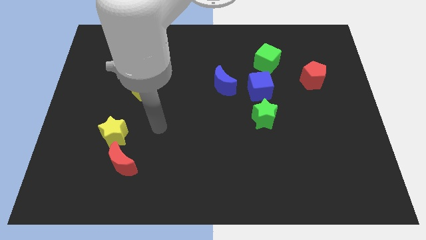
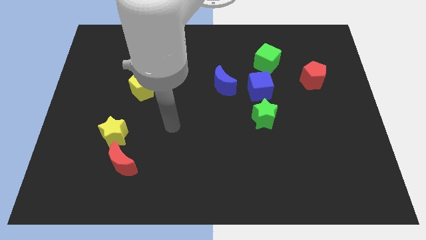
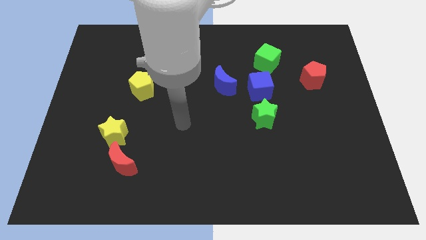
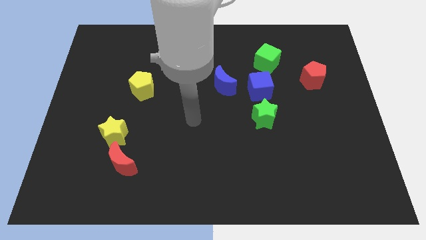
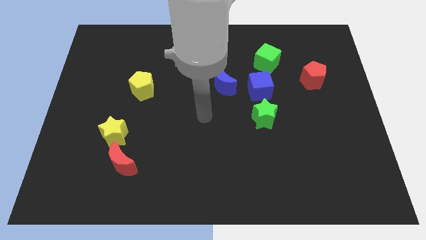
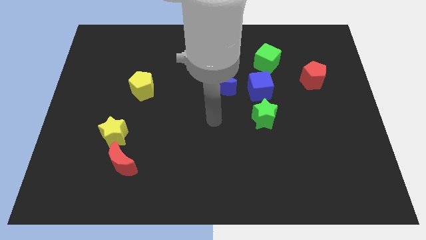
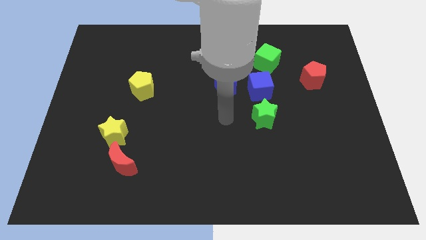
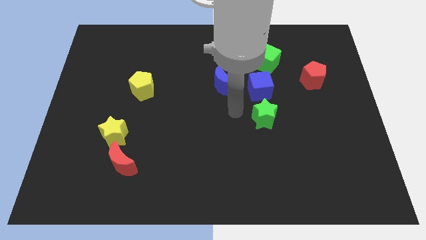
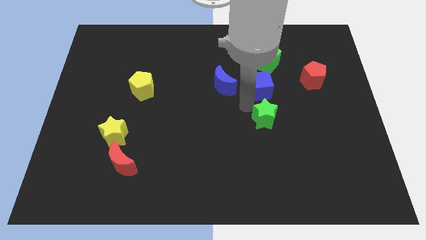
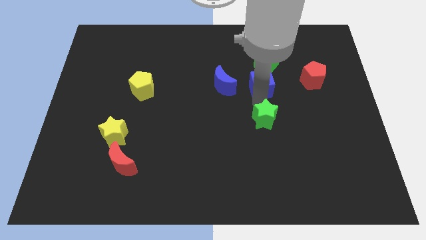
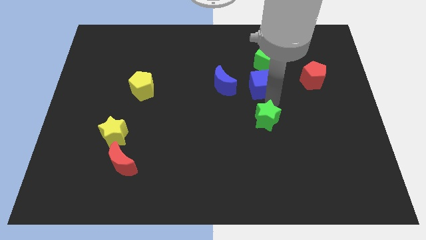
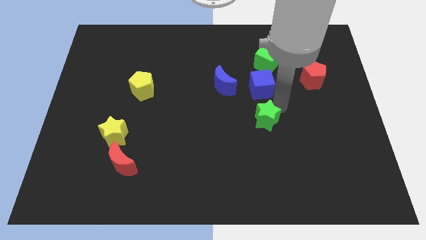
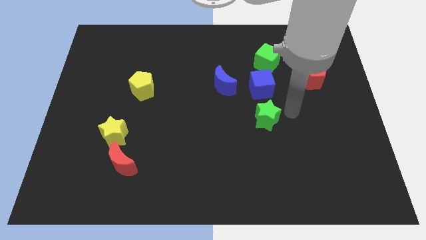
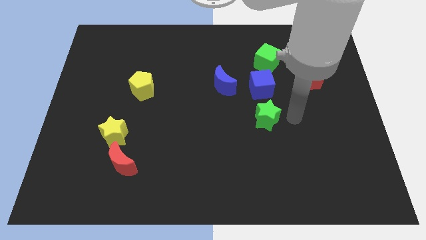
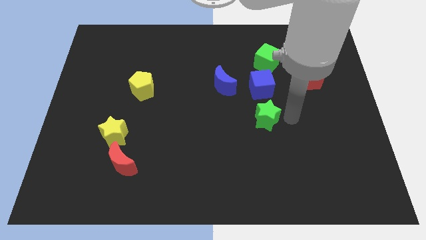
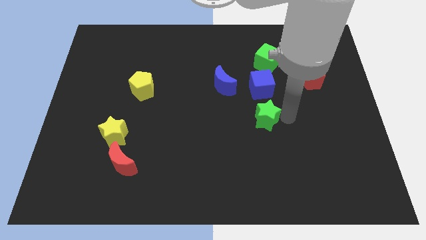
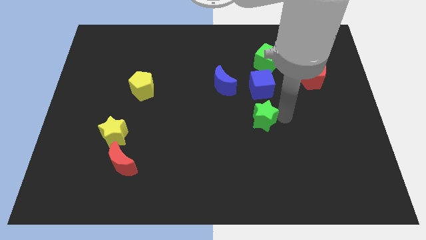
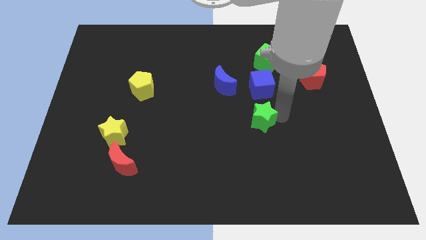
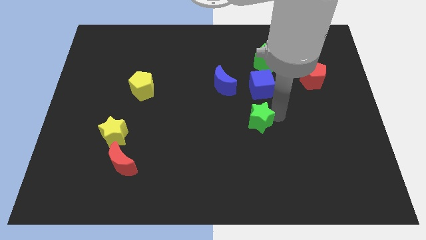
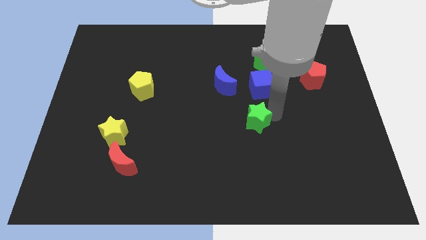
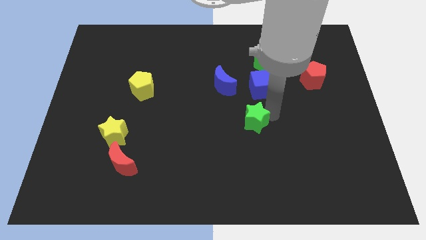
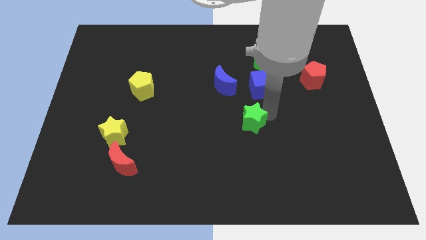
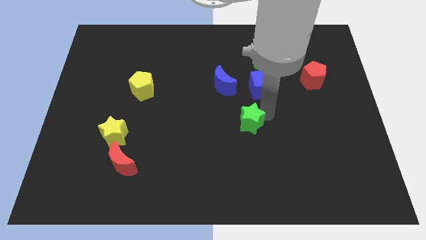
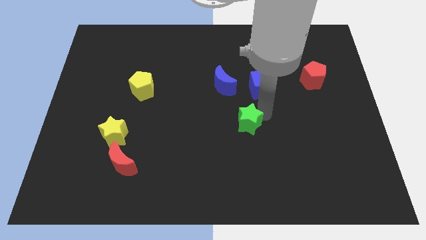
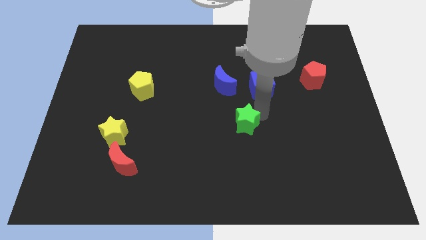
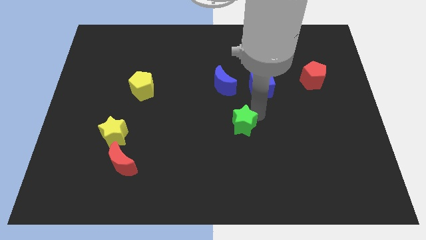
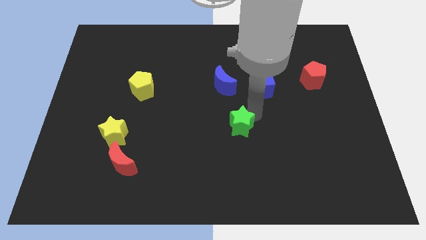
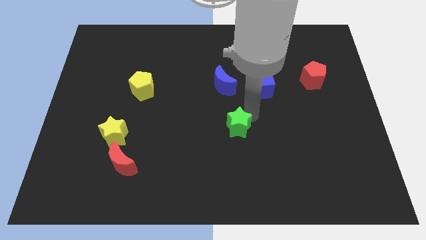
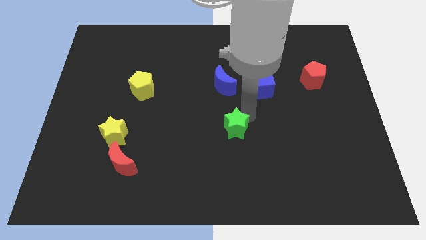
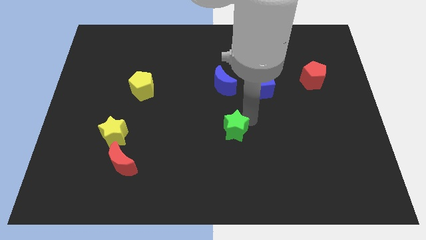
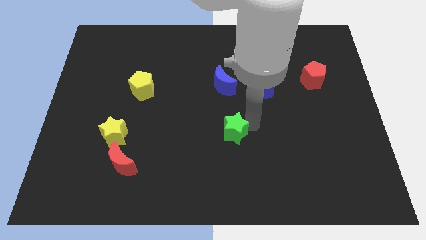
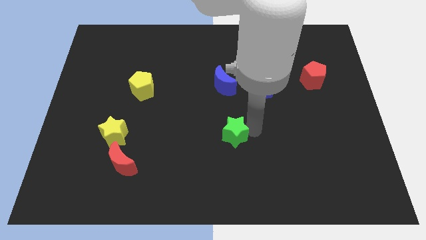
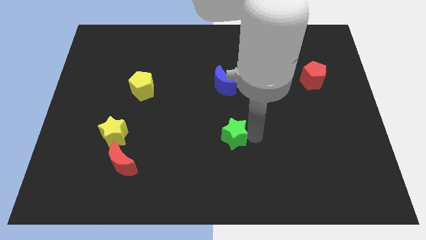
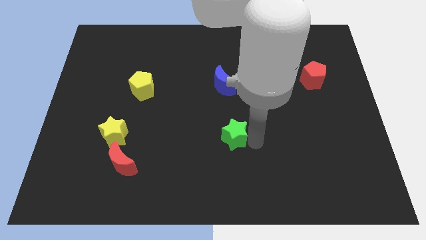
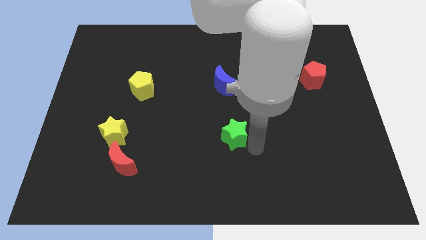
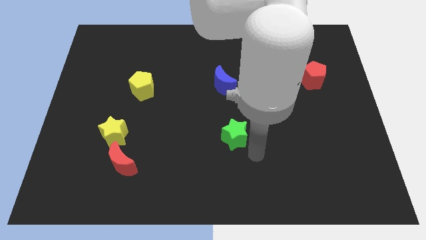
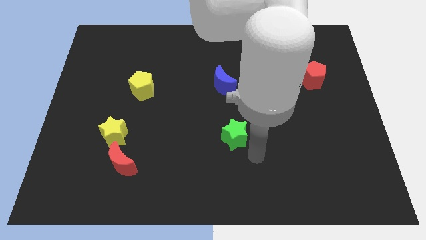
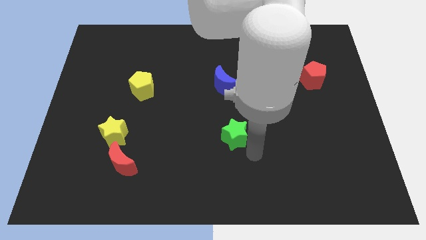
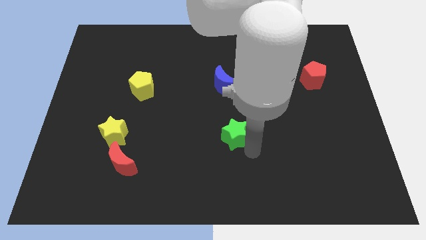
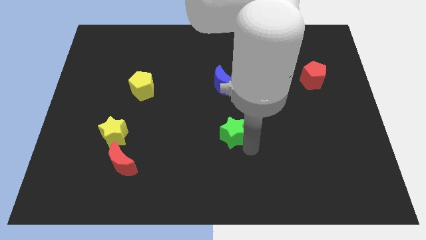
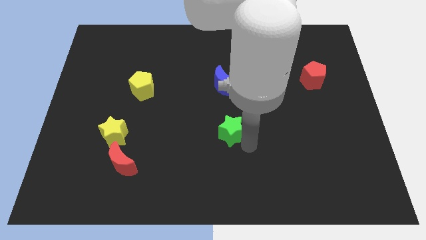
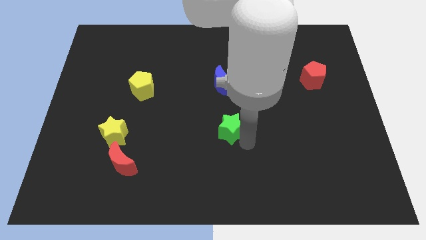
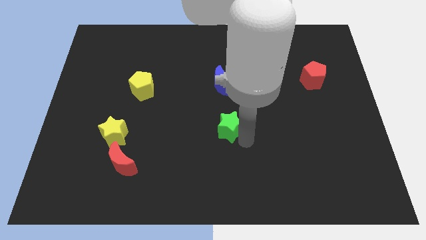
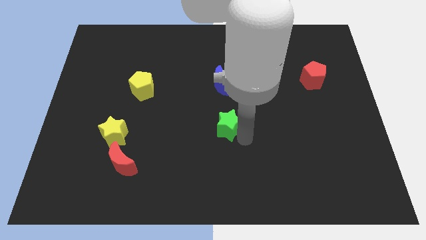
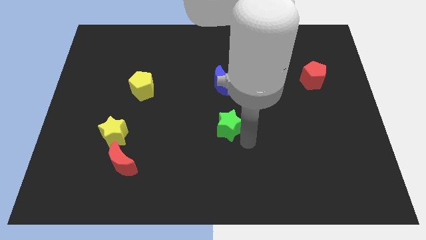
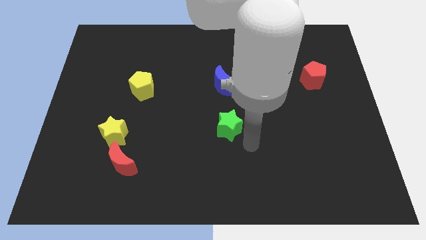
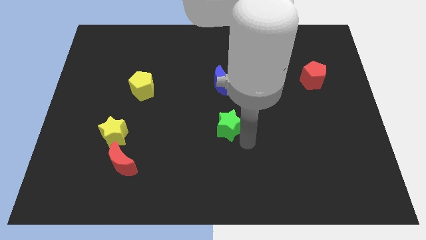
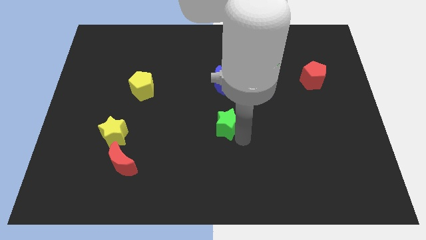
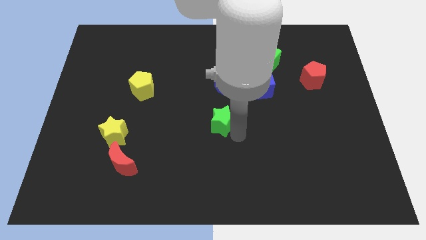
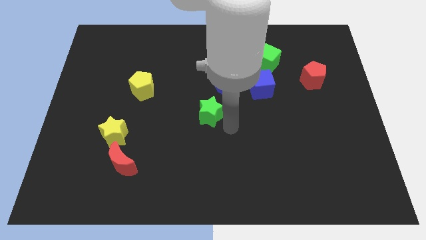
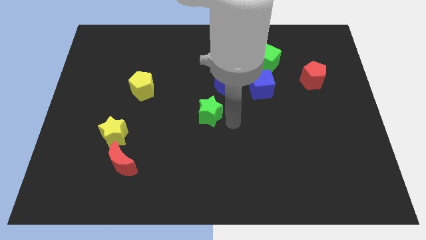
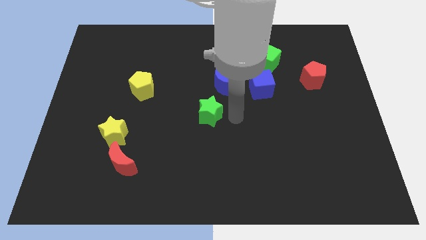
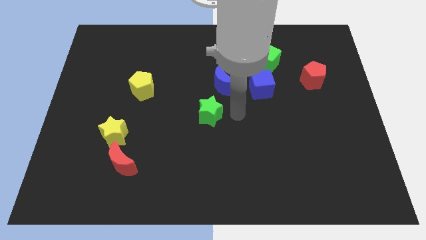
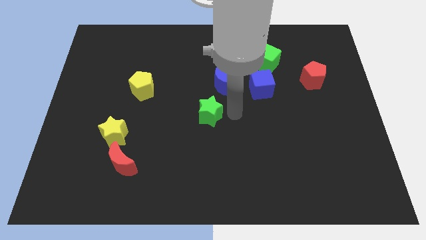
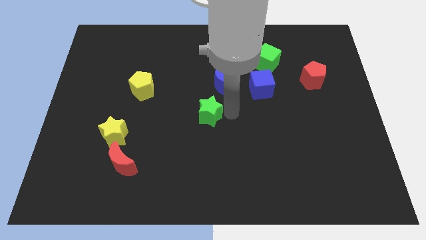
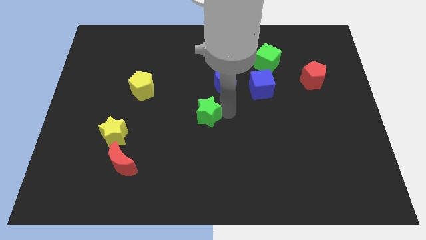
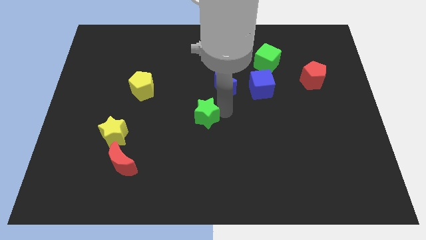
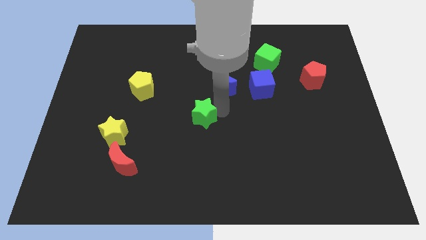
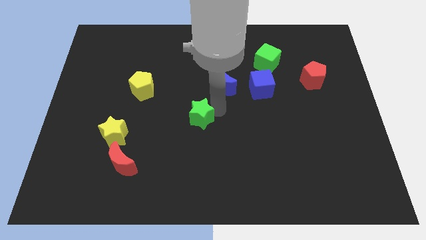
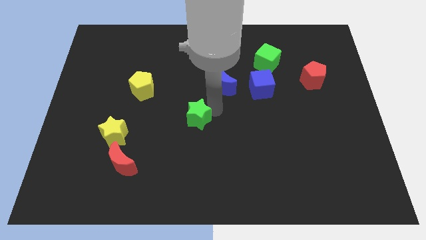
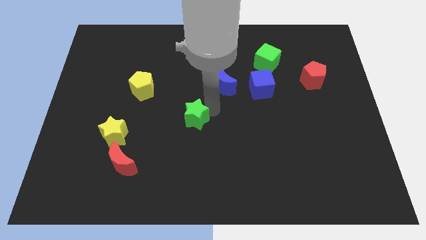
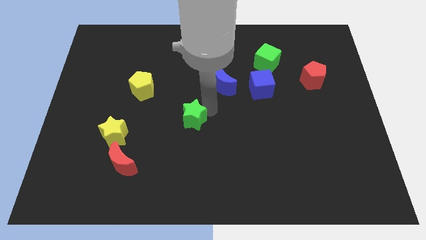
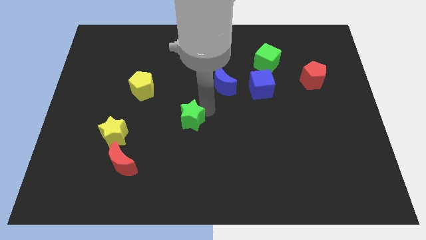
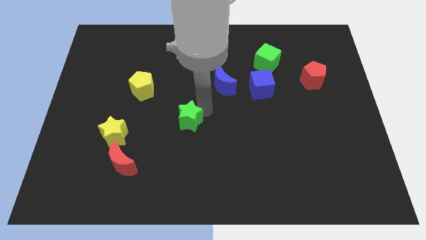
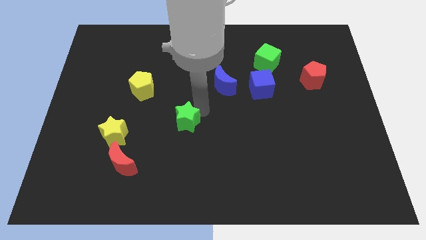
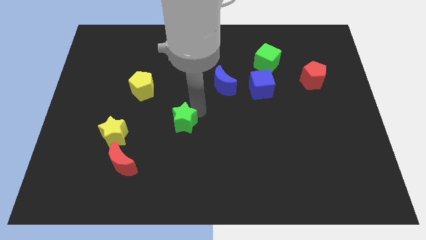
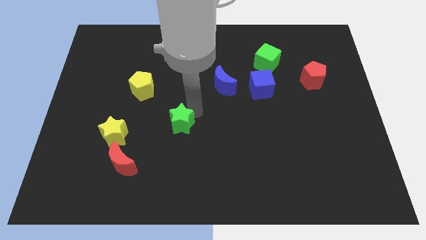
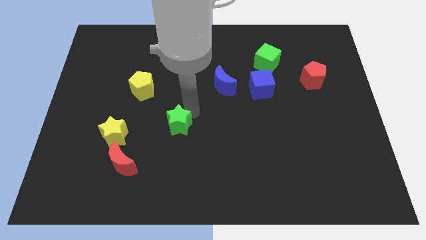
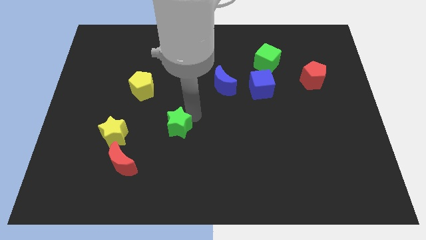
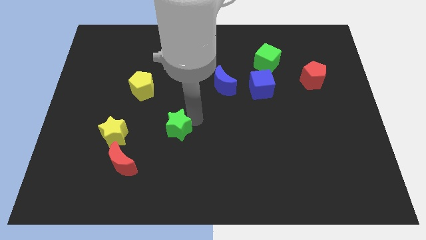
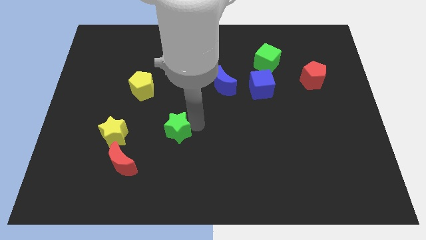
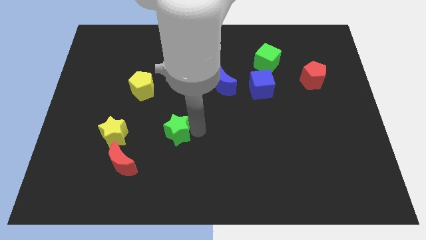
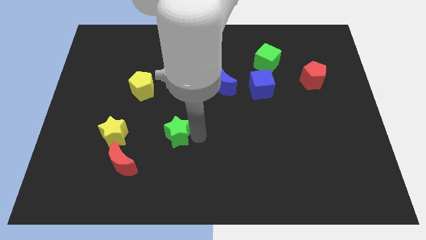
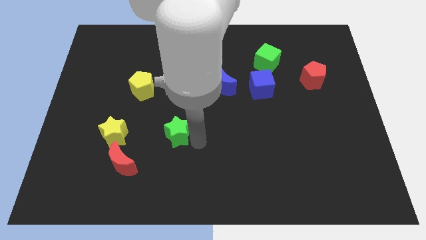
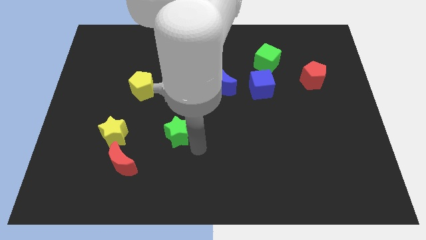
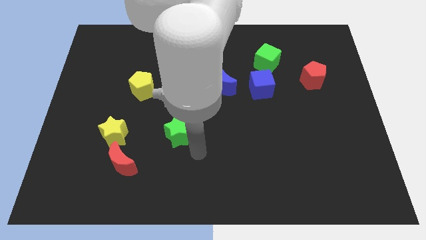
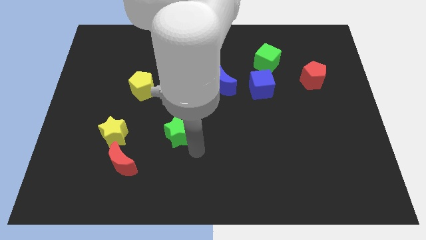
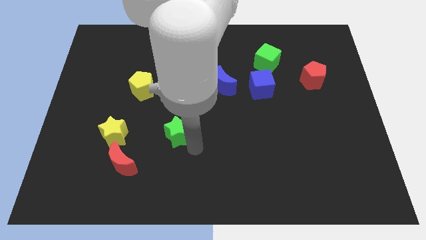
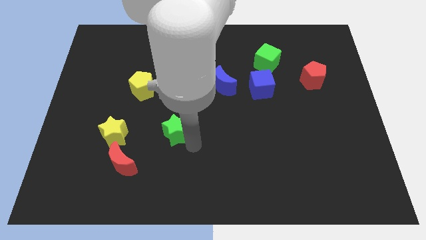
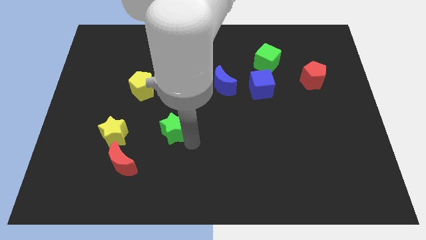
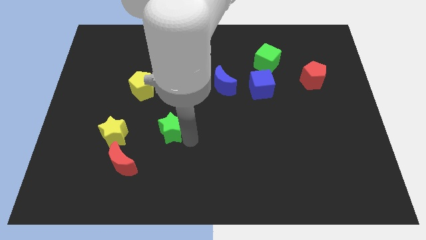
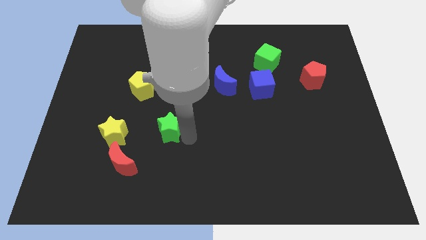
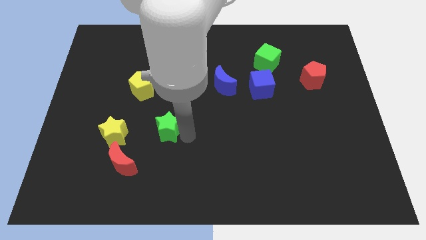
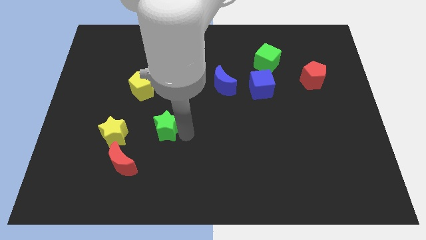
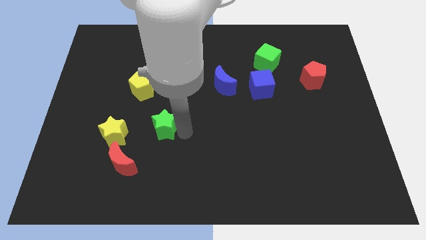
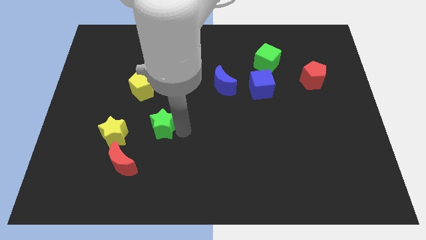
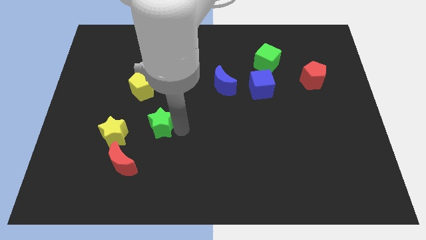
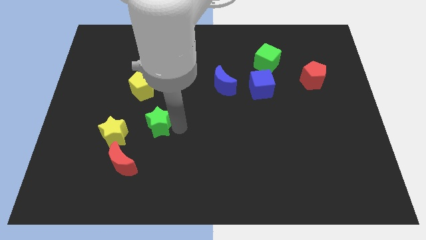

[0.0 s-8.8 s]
move the green star to the top right of the yellow star
